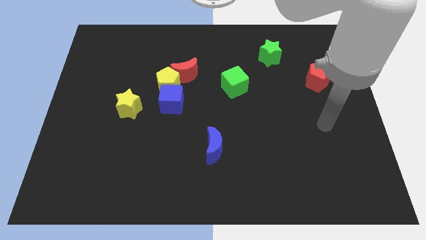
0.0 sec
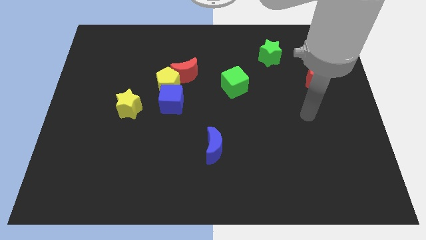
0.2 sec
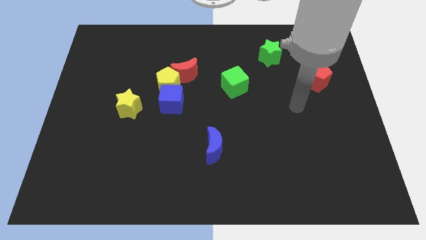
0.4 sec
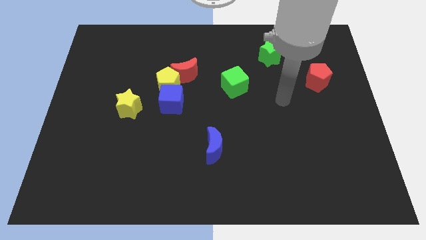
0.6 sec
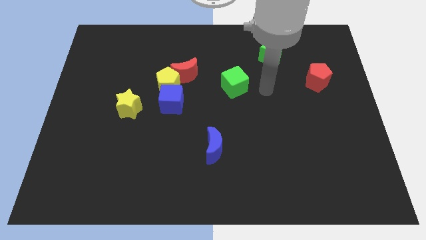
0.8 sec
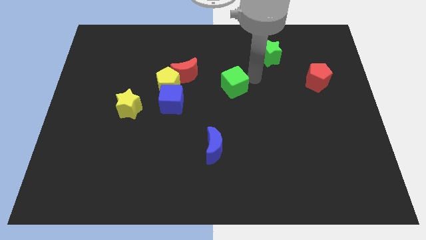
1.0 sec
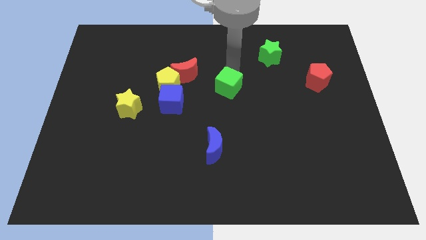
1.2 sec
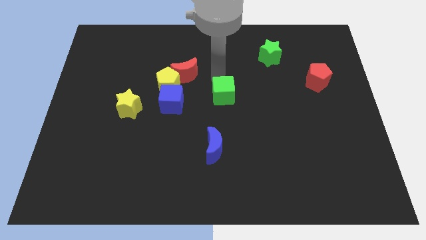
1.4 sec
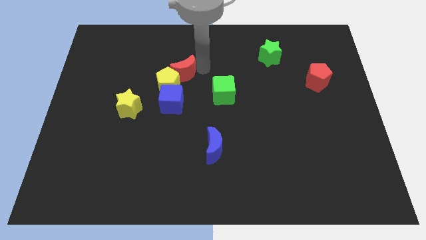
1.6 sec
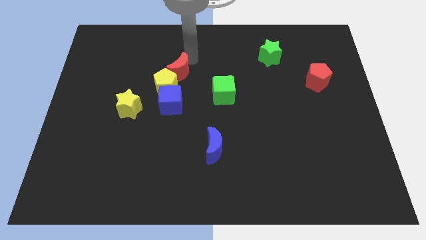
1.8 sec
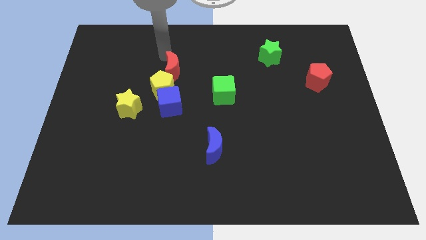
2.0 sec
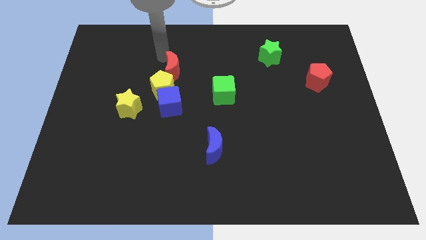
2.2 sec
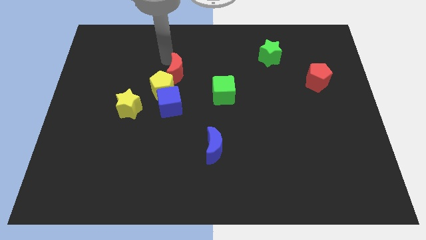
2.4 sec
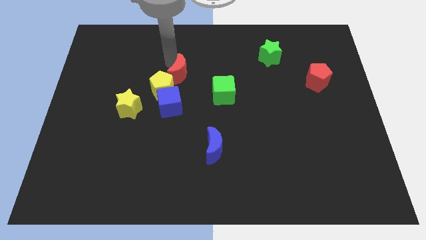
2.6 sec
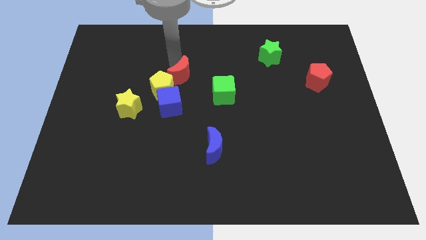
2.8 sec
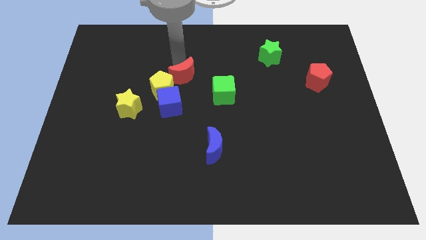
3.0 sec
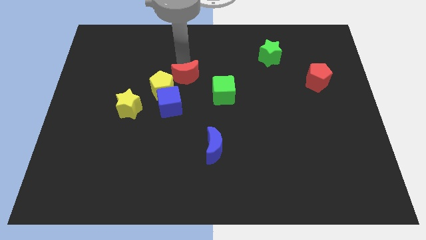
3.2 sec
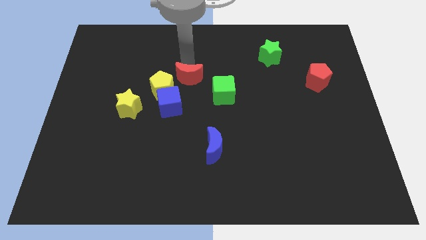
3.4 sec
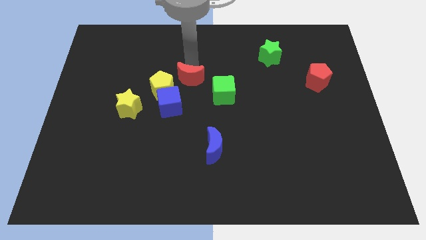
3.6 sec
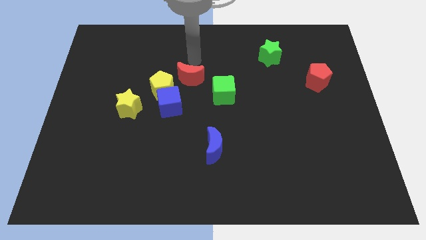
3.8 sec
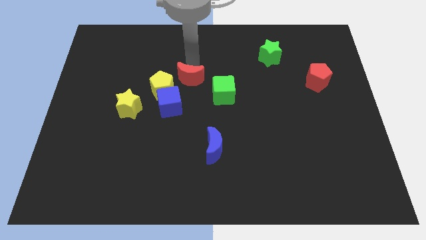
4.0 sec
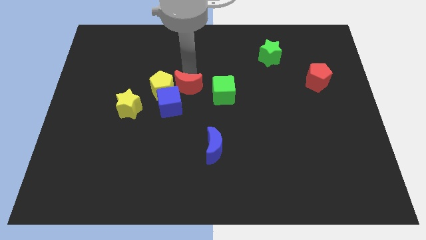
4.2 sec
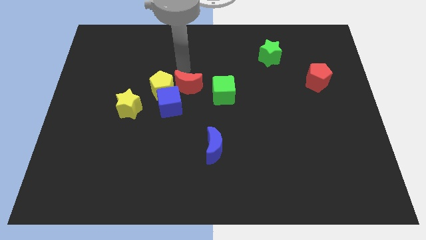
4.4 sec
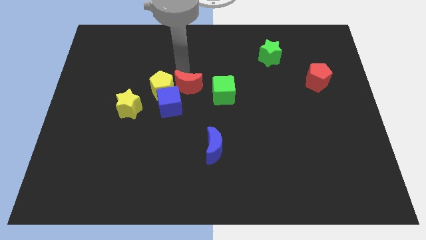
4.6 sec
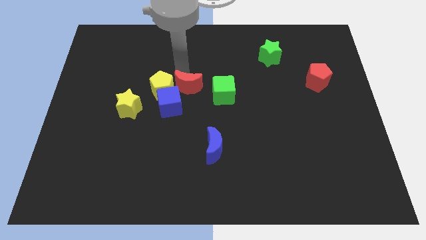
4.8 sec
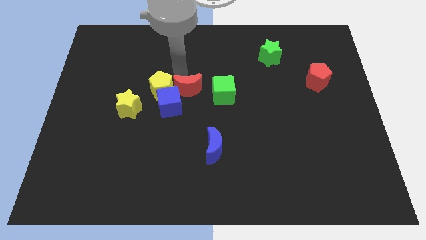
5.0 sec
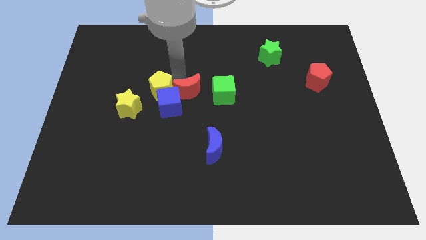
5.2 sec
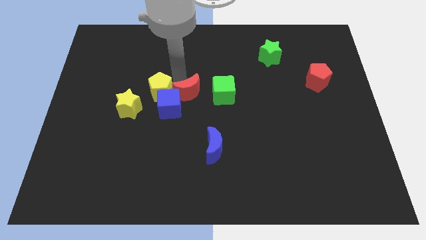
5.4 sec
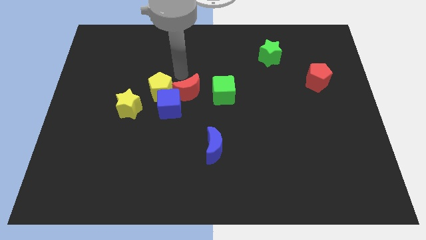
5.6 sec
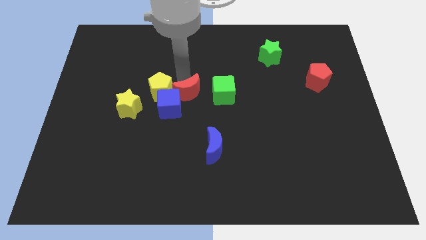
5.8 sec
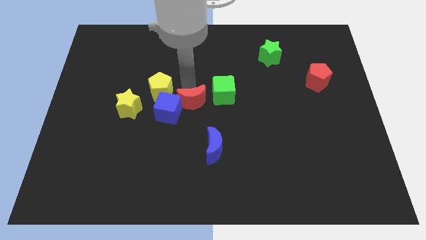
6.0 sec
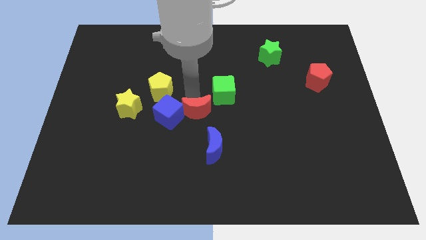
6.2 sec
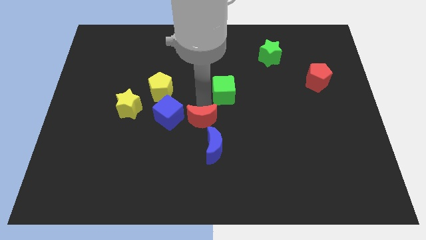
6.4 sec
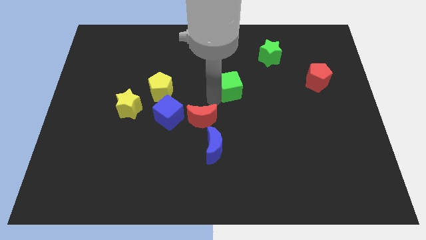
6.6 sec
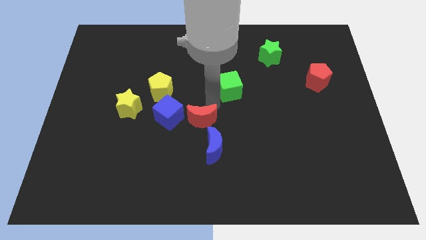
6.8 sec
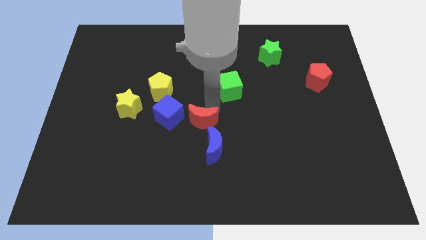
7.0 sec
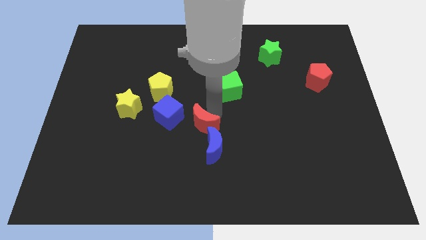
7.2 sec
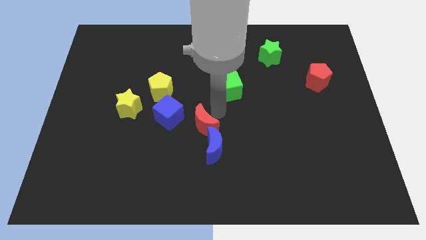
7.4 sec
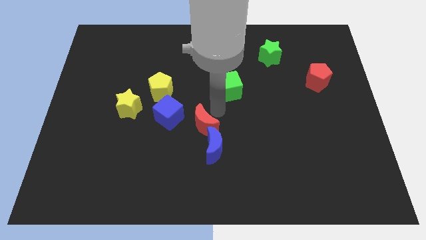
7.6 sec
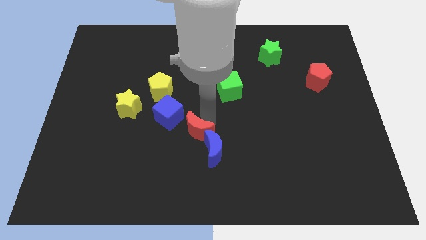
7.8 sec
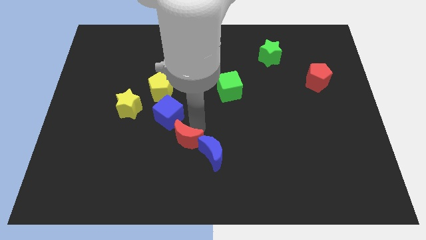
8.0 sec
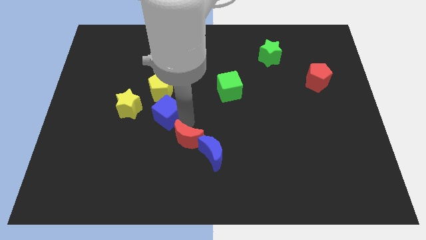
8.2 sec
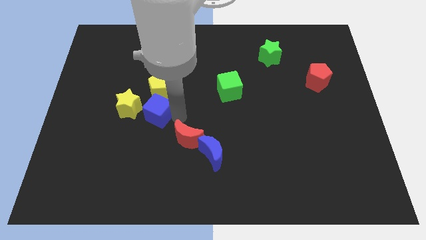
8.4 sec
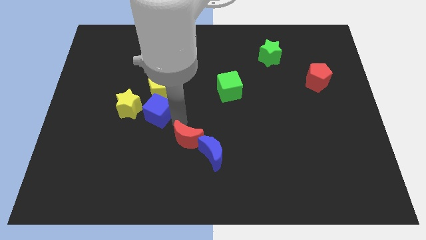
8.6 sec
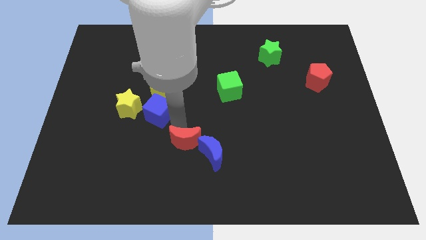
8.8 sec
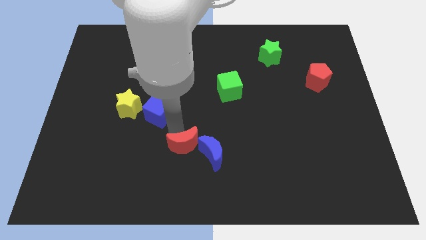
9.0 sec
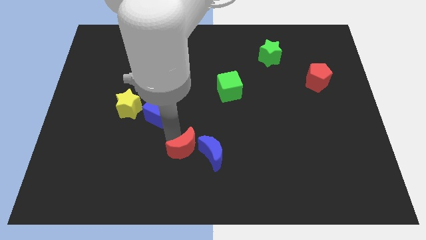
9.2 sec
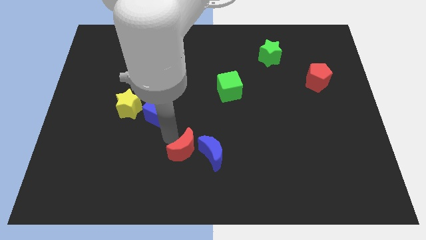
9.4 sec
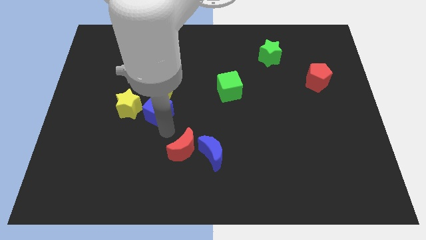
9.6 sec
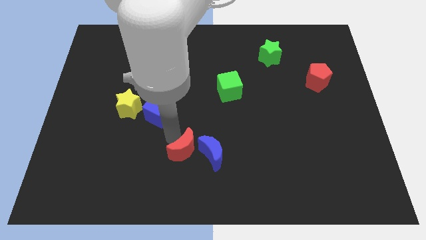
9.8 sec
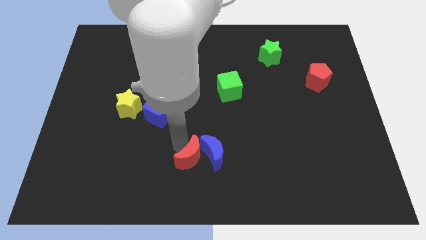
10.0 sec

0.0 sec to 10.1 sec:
put the red moon to the bottom side

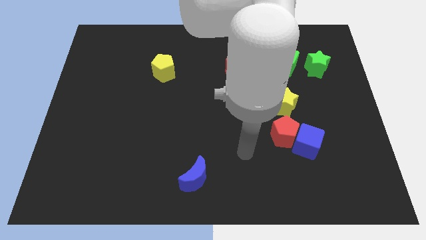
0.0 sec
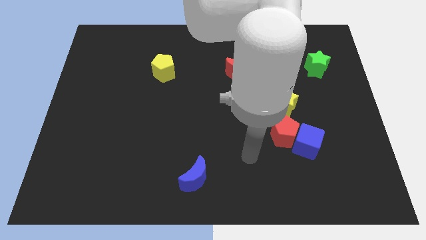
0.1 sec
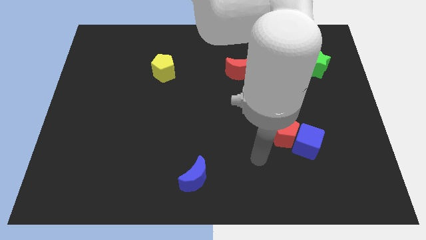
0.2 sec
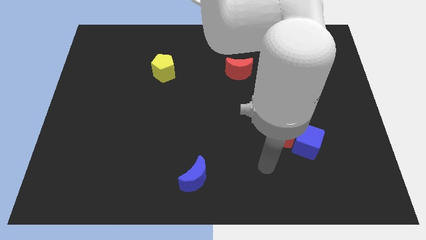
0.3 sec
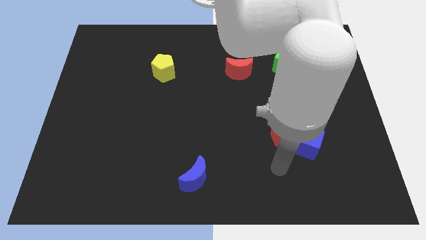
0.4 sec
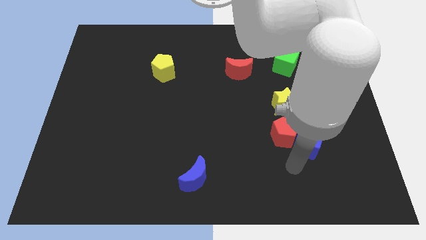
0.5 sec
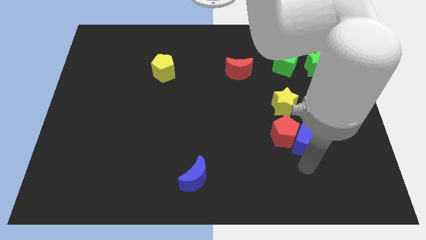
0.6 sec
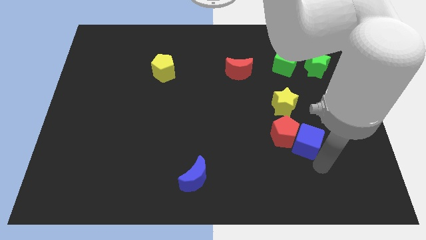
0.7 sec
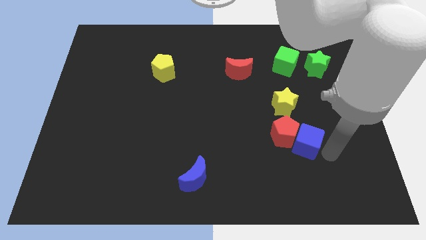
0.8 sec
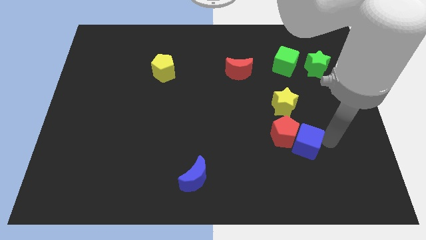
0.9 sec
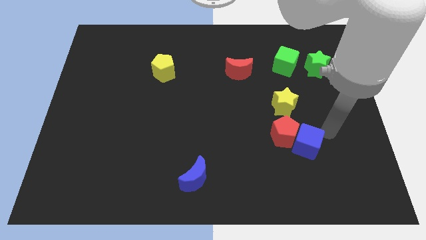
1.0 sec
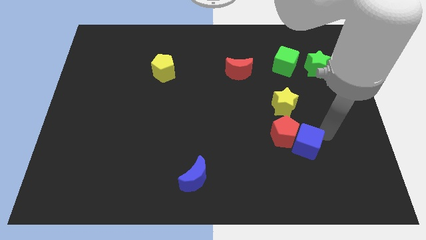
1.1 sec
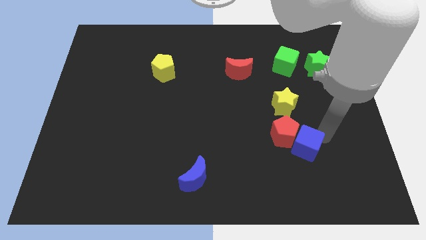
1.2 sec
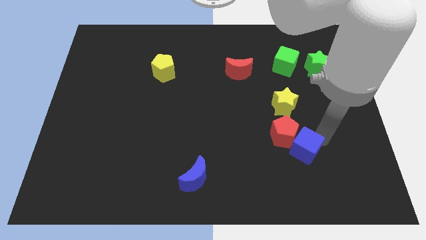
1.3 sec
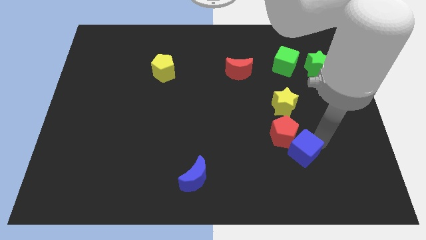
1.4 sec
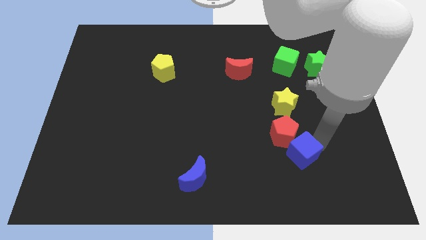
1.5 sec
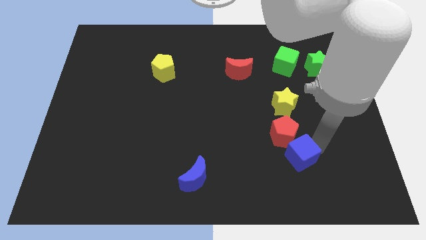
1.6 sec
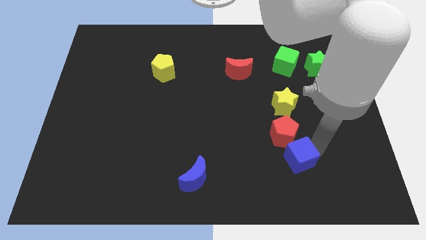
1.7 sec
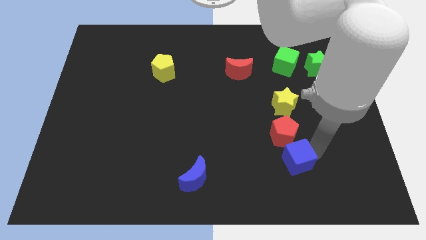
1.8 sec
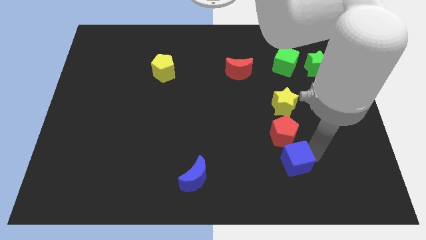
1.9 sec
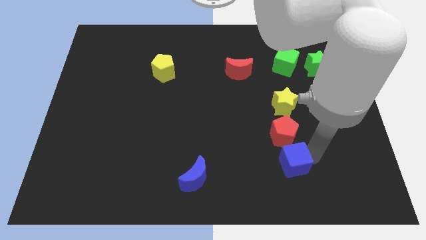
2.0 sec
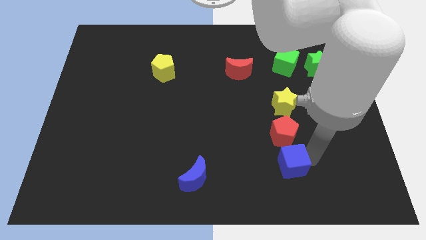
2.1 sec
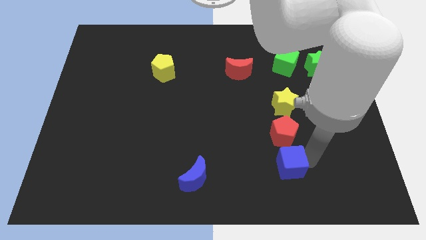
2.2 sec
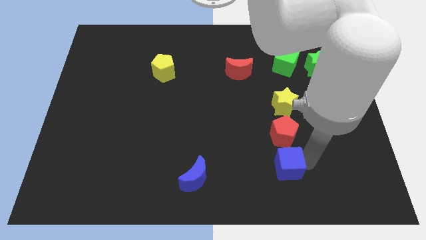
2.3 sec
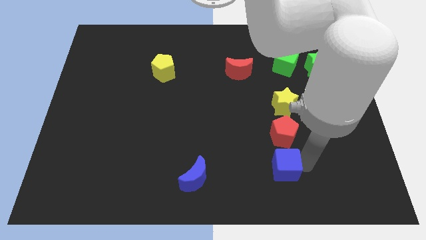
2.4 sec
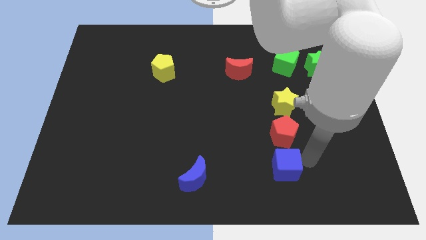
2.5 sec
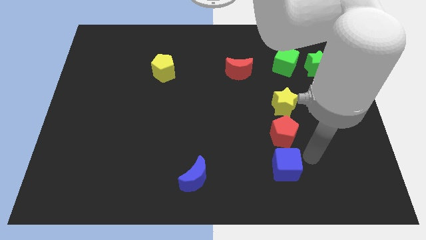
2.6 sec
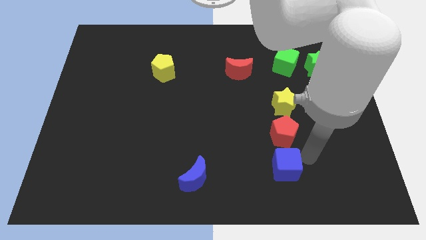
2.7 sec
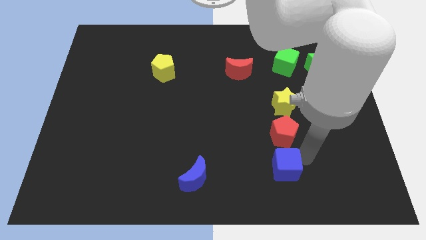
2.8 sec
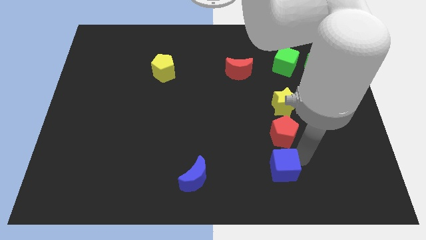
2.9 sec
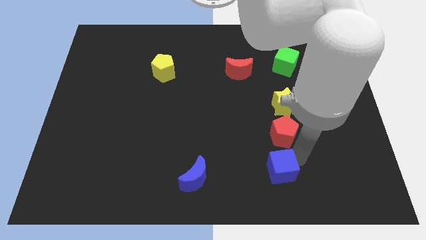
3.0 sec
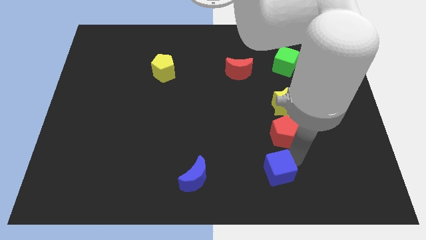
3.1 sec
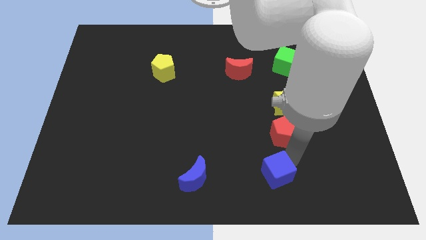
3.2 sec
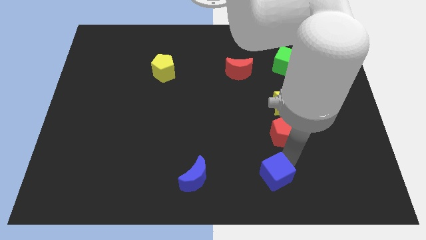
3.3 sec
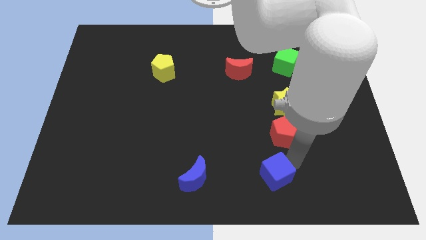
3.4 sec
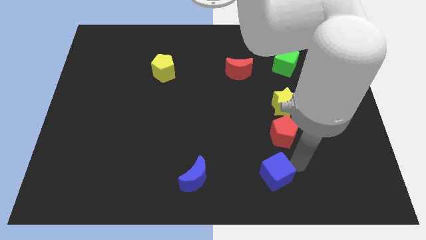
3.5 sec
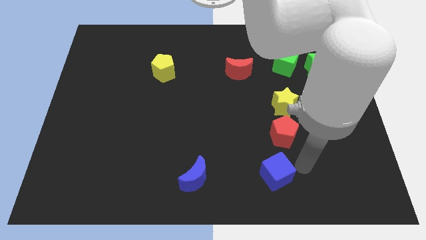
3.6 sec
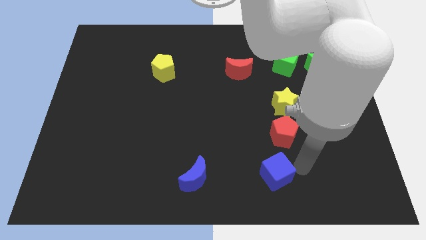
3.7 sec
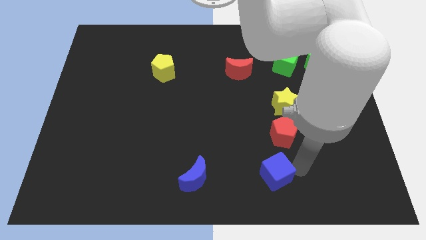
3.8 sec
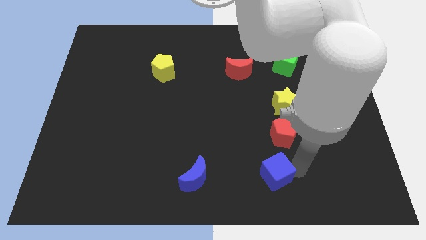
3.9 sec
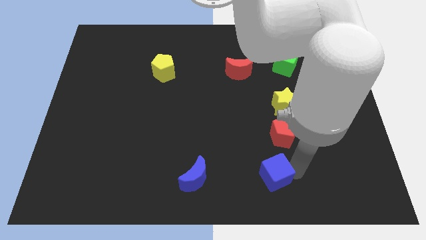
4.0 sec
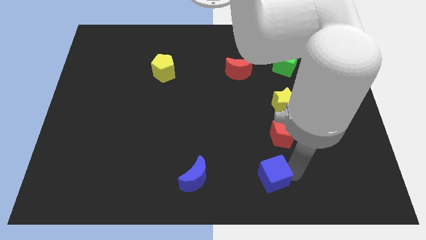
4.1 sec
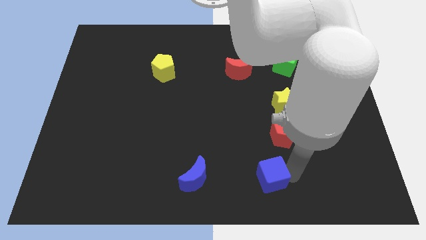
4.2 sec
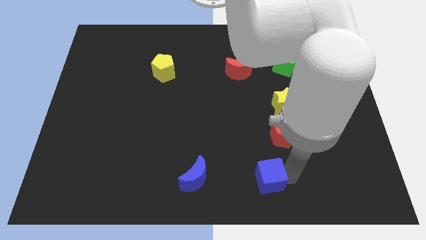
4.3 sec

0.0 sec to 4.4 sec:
move the blue cube to the bottom side
